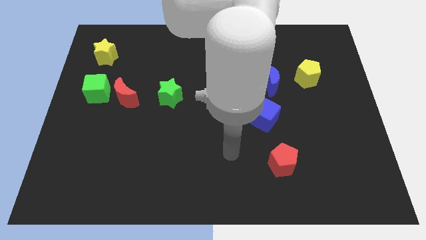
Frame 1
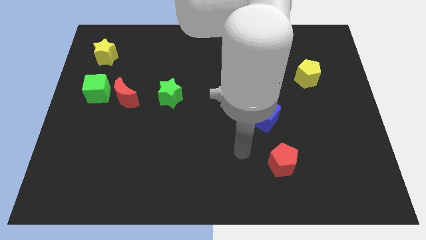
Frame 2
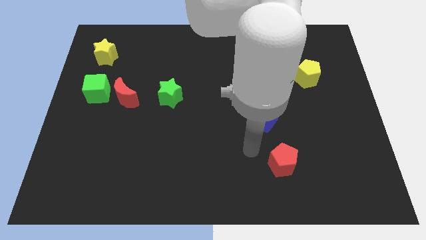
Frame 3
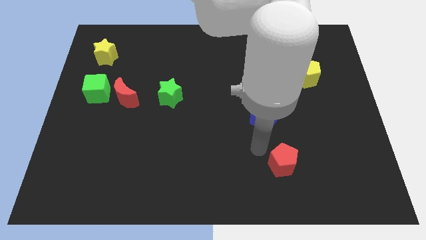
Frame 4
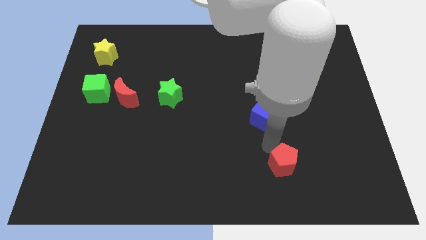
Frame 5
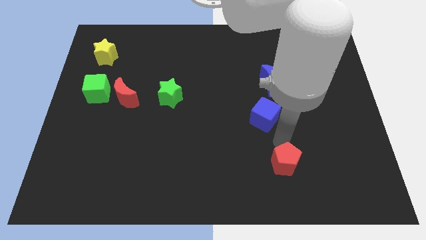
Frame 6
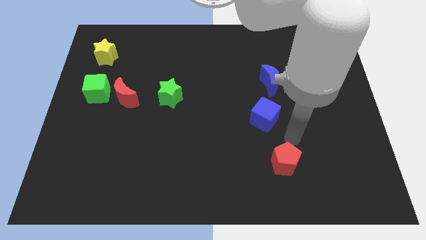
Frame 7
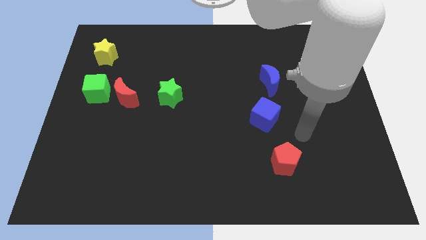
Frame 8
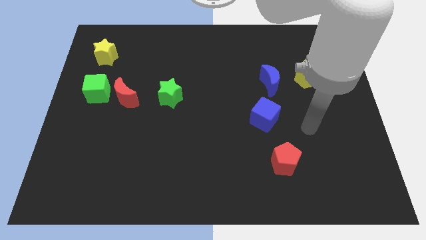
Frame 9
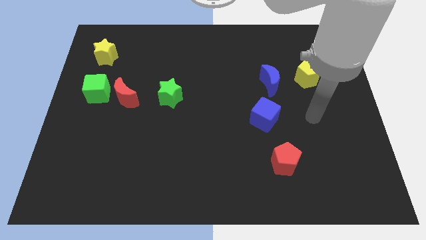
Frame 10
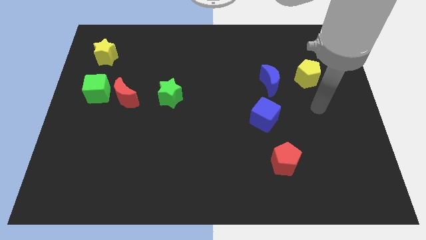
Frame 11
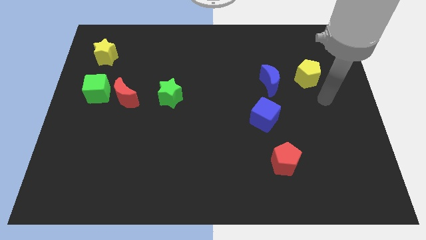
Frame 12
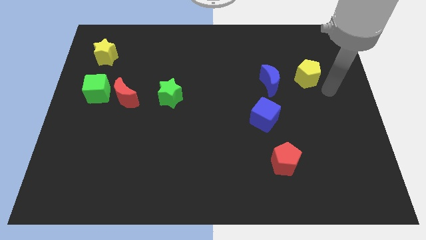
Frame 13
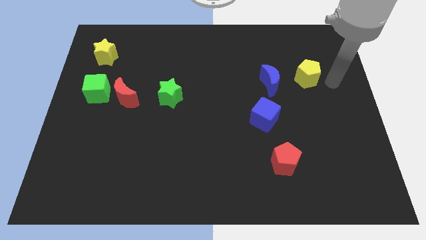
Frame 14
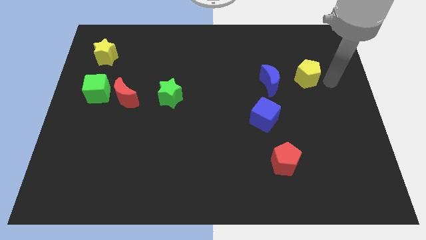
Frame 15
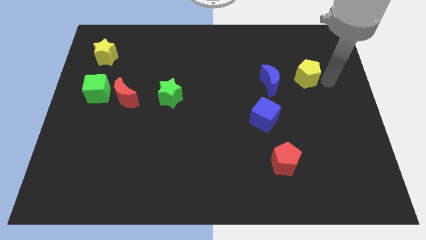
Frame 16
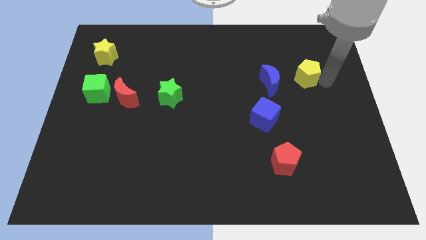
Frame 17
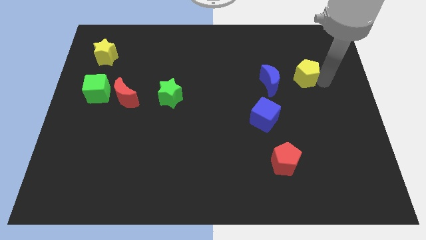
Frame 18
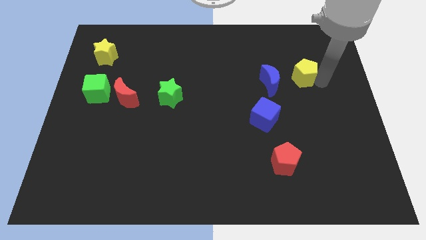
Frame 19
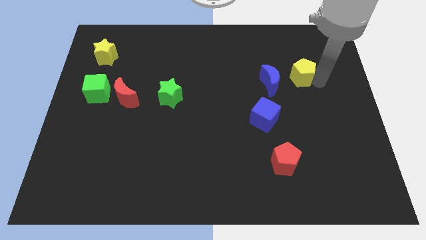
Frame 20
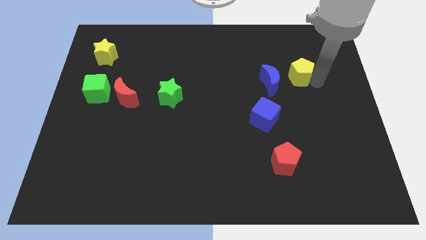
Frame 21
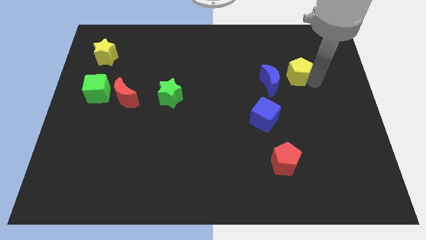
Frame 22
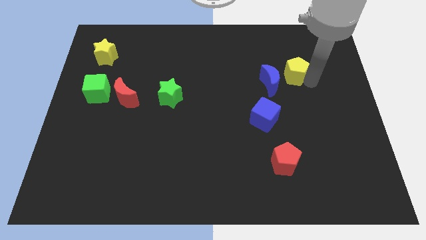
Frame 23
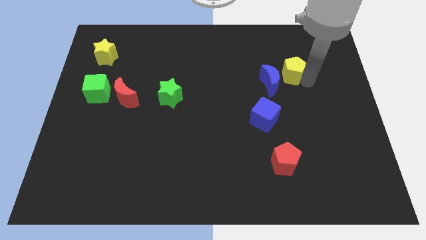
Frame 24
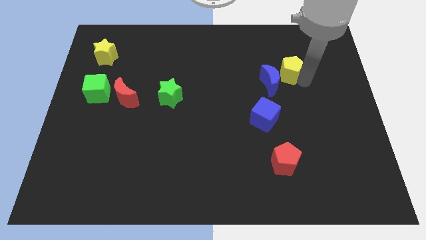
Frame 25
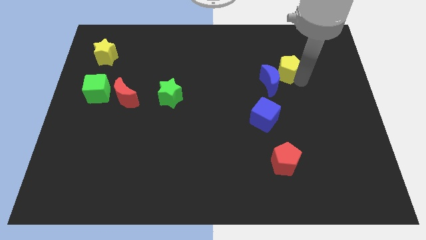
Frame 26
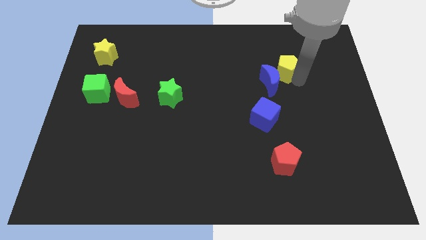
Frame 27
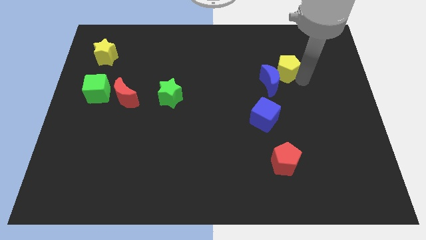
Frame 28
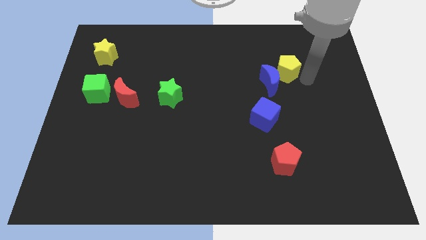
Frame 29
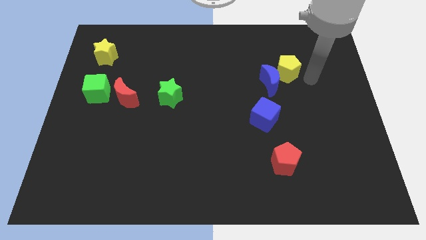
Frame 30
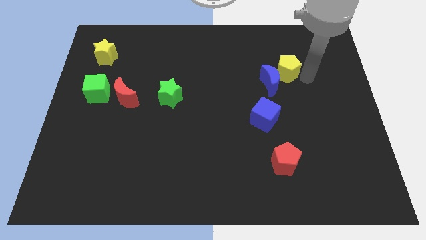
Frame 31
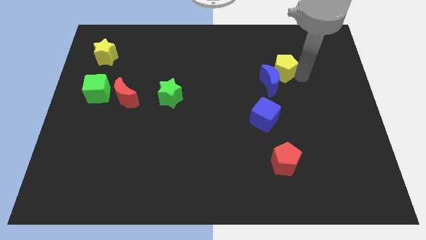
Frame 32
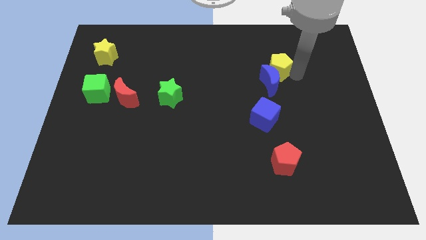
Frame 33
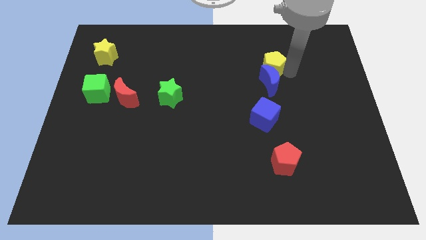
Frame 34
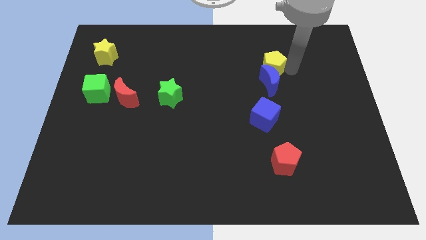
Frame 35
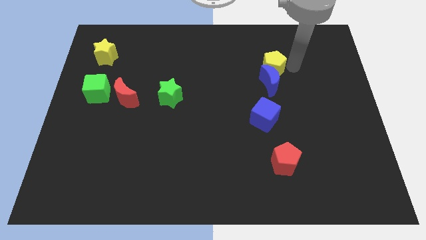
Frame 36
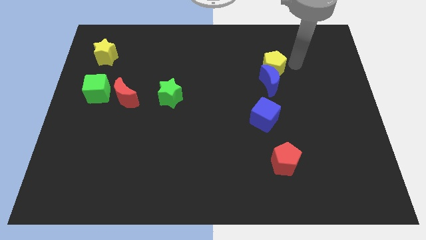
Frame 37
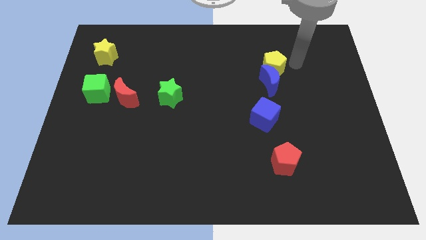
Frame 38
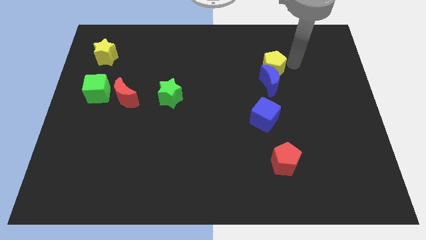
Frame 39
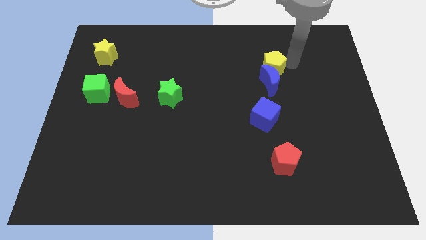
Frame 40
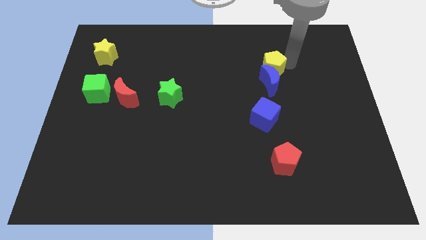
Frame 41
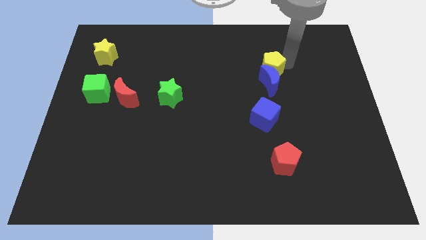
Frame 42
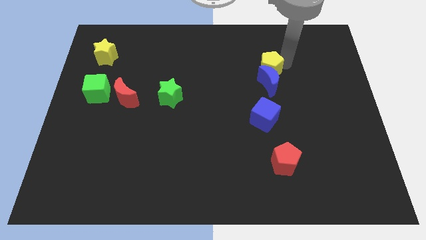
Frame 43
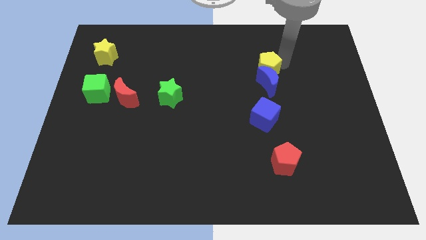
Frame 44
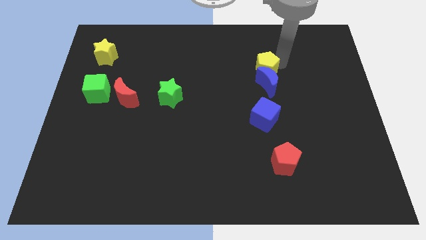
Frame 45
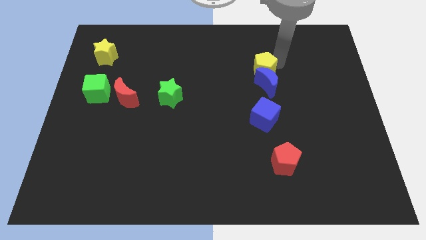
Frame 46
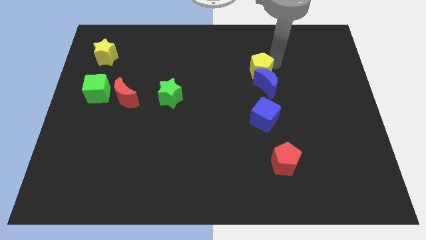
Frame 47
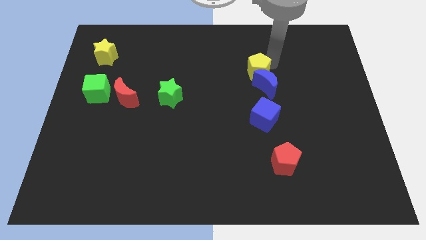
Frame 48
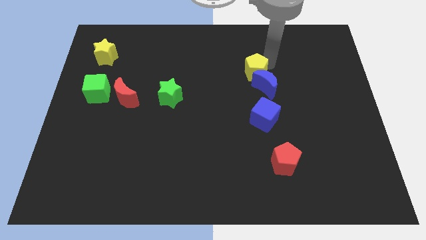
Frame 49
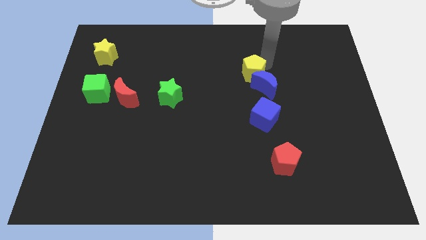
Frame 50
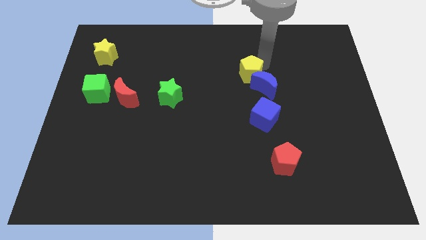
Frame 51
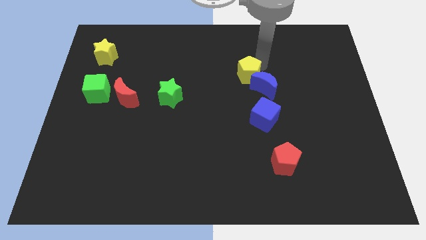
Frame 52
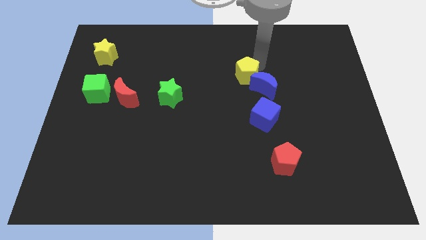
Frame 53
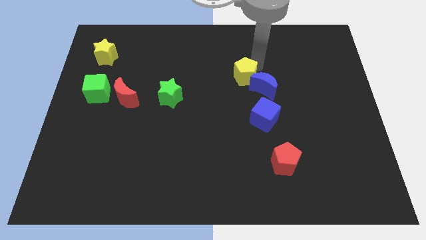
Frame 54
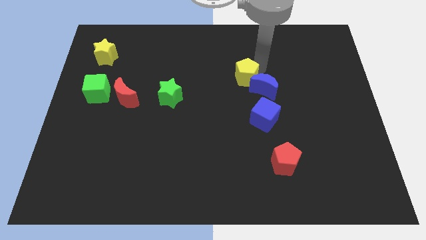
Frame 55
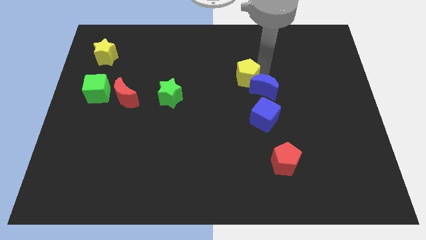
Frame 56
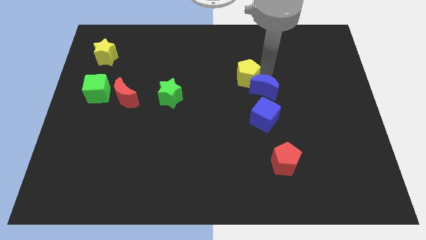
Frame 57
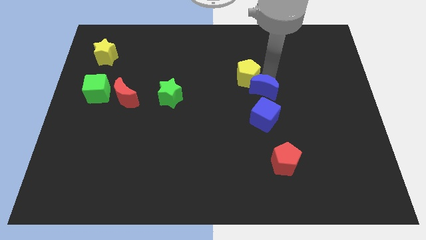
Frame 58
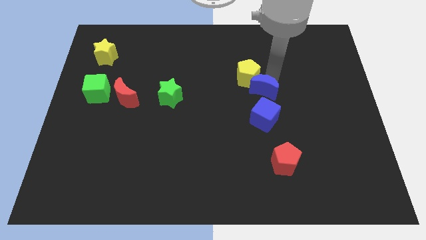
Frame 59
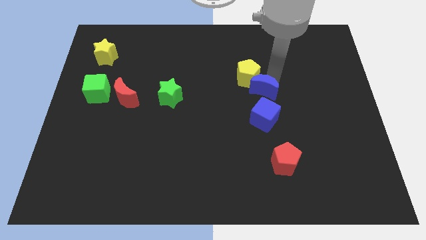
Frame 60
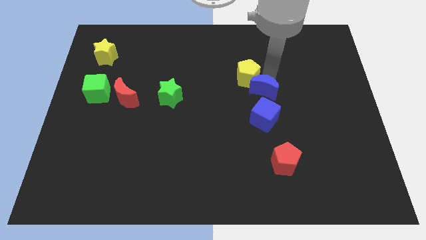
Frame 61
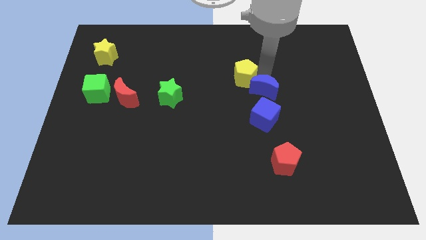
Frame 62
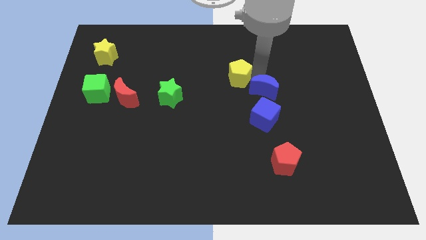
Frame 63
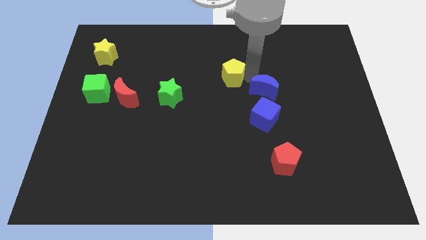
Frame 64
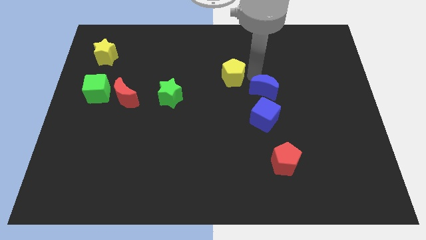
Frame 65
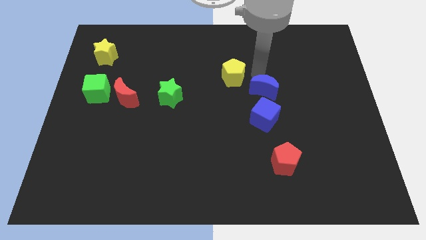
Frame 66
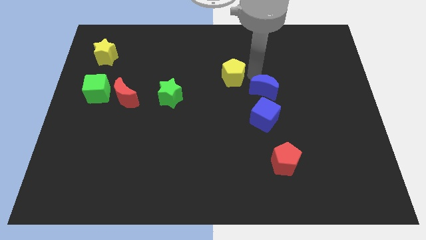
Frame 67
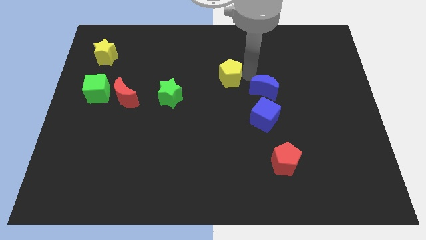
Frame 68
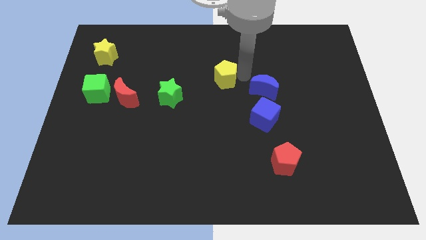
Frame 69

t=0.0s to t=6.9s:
slide the yellow pentagon left

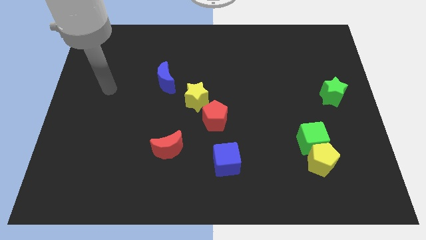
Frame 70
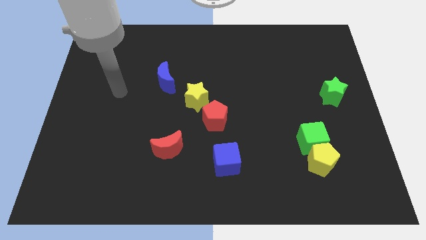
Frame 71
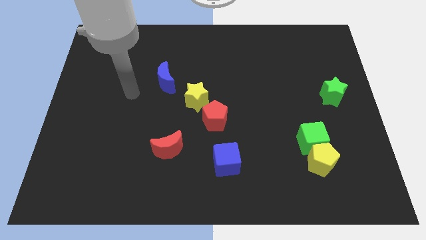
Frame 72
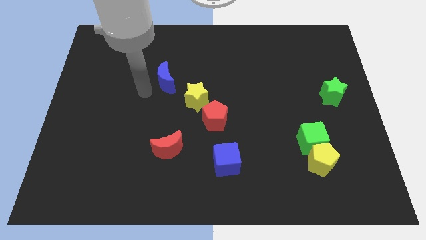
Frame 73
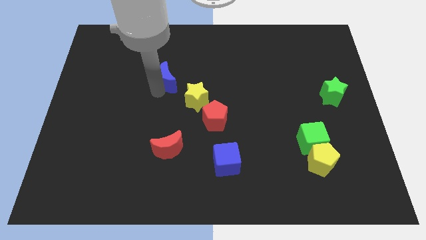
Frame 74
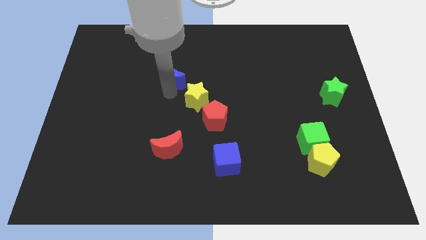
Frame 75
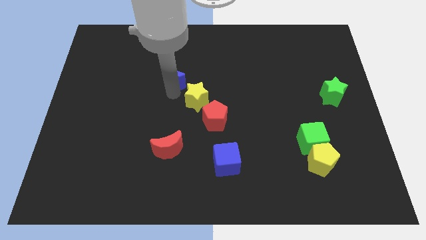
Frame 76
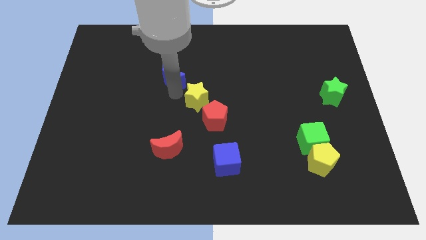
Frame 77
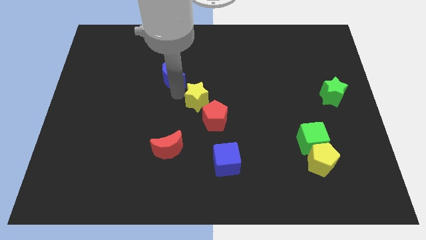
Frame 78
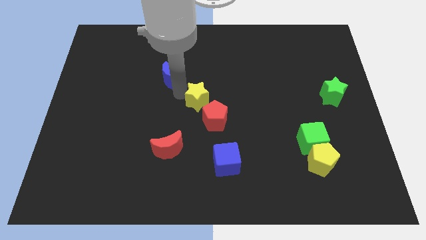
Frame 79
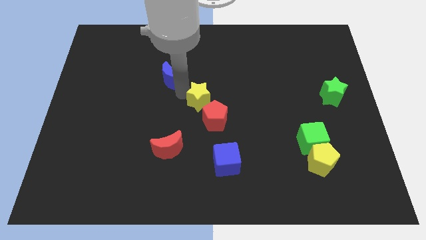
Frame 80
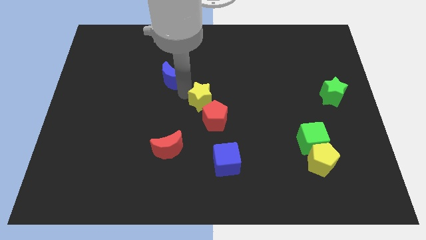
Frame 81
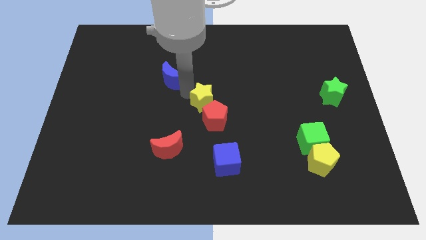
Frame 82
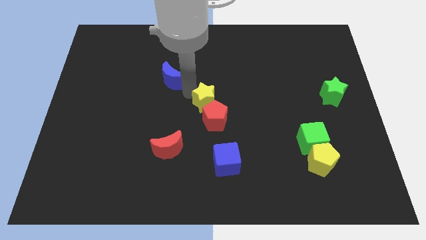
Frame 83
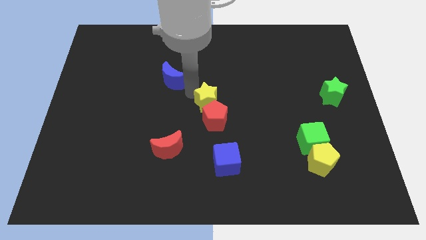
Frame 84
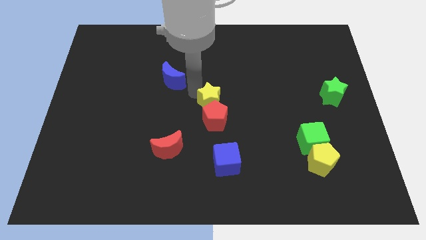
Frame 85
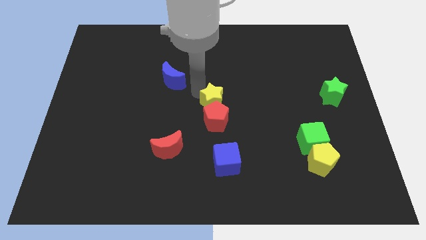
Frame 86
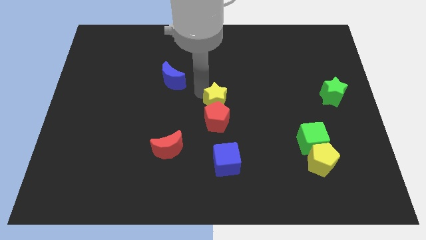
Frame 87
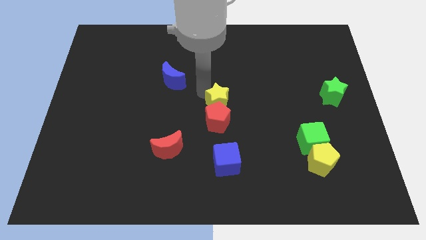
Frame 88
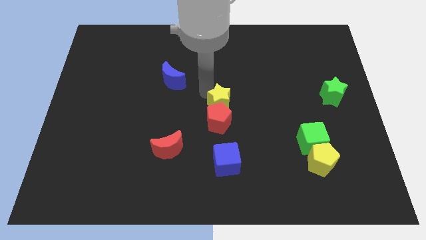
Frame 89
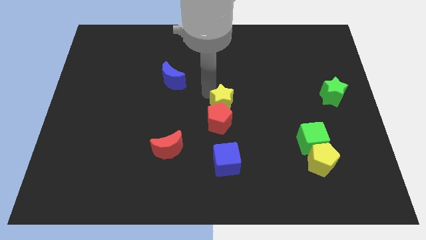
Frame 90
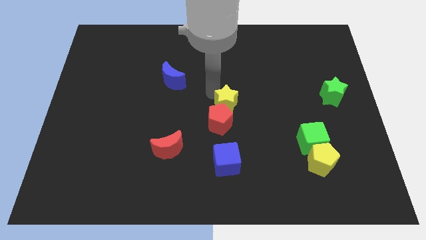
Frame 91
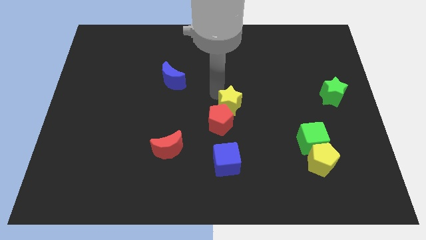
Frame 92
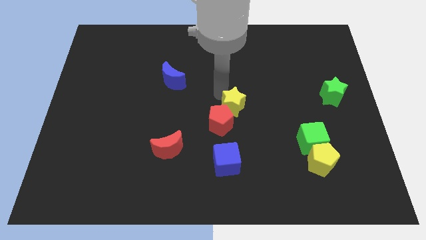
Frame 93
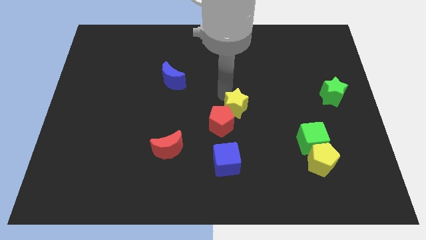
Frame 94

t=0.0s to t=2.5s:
slightly move the yellow star downwards and to the right diagonally
